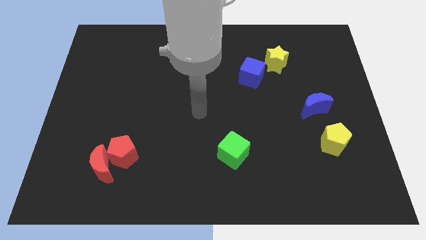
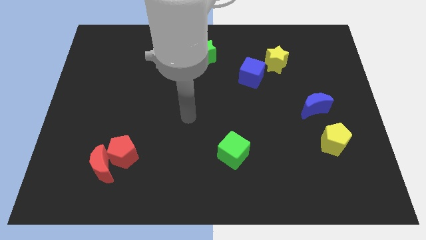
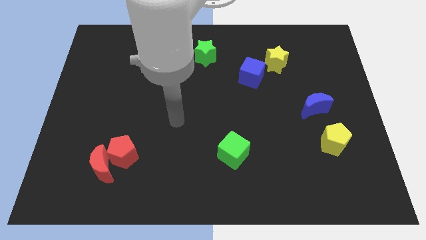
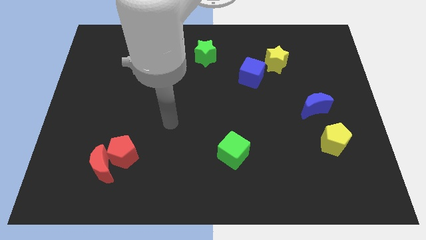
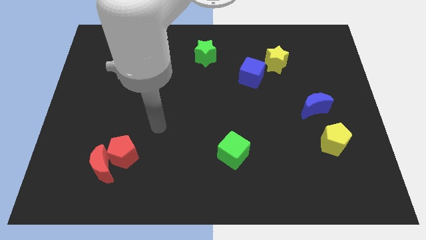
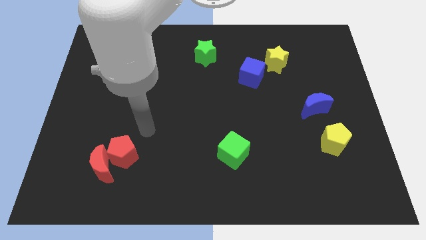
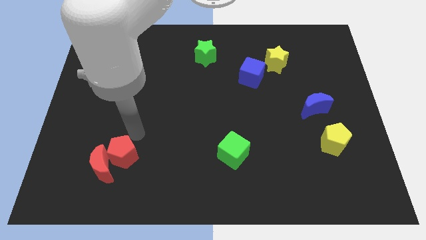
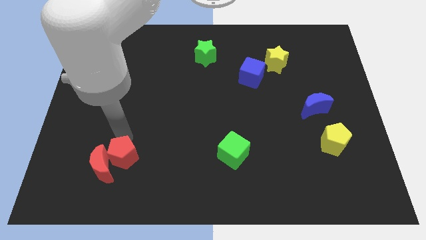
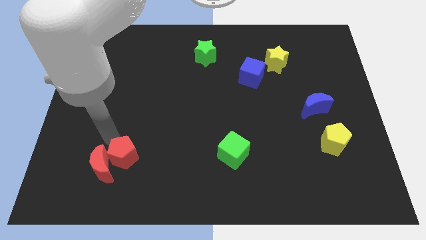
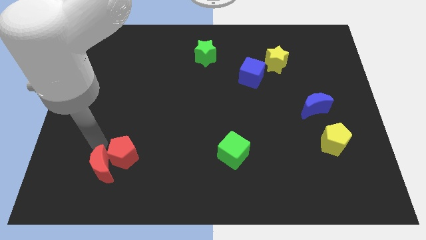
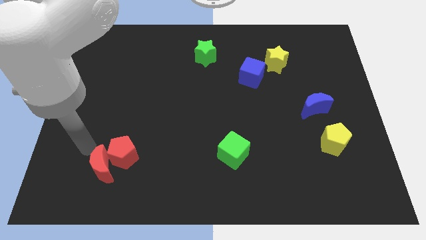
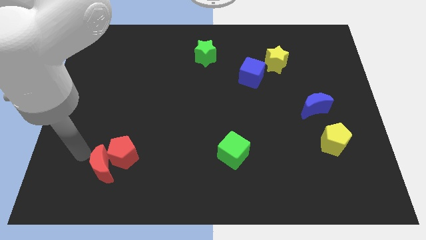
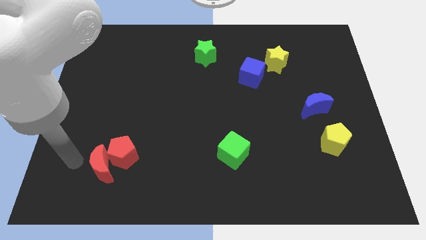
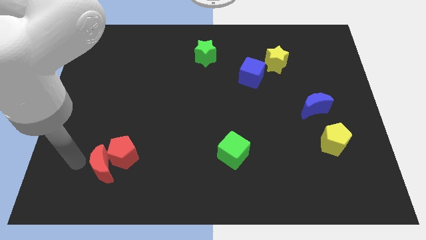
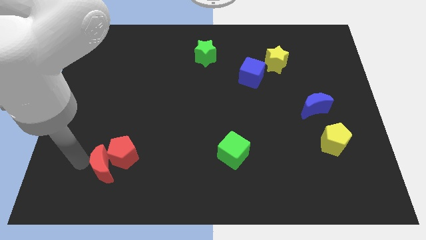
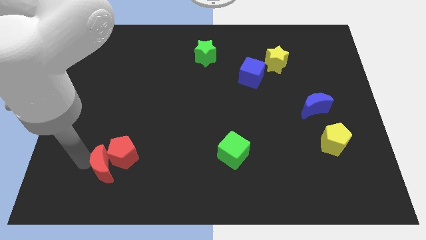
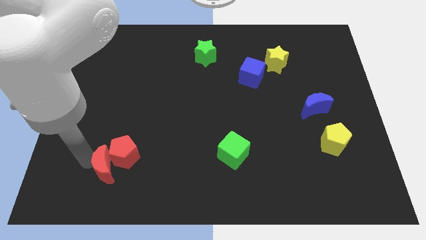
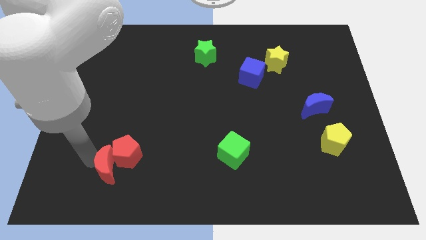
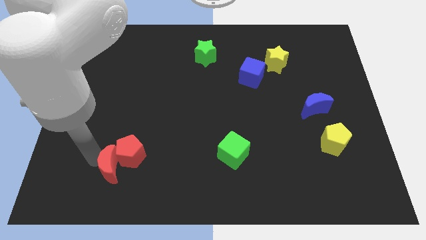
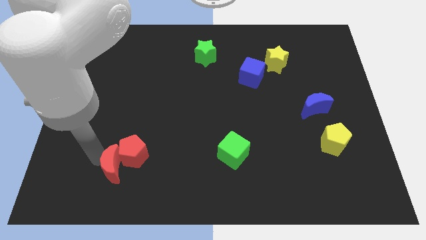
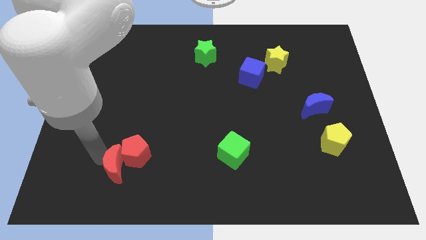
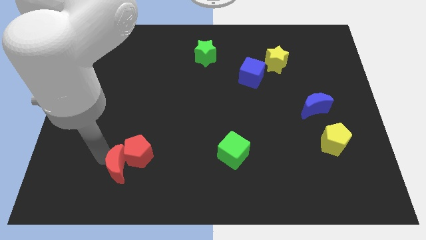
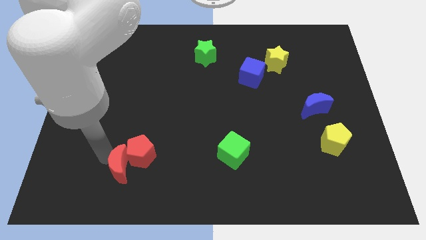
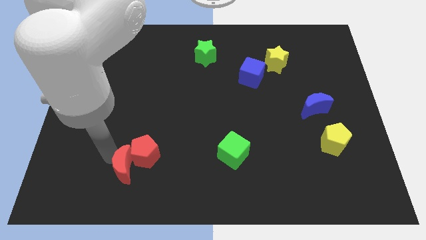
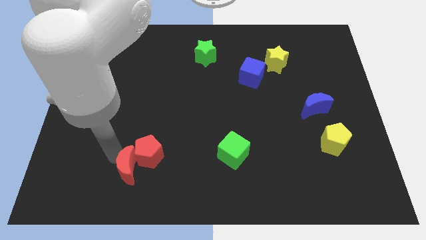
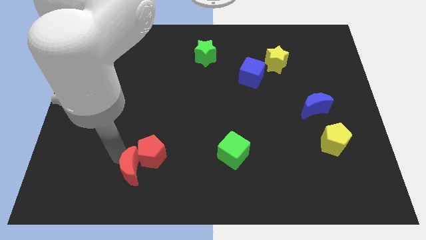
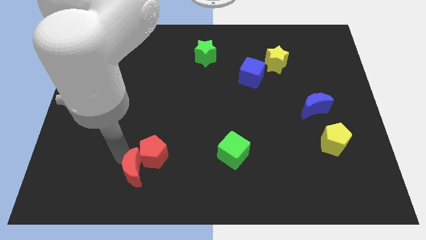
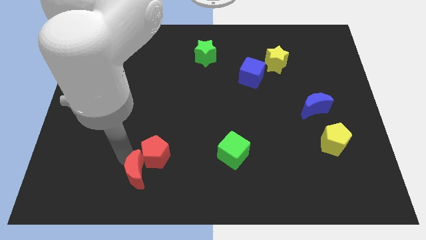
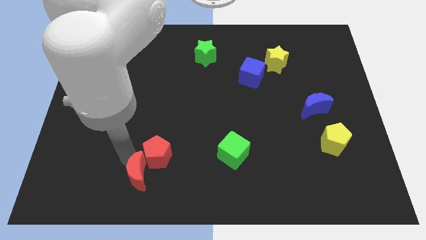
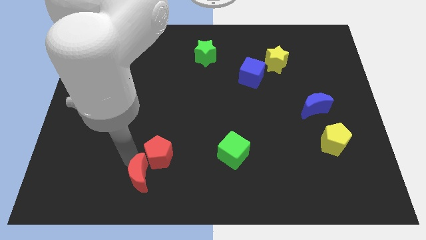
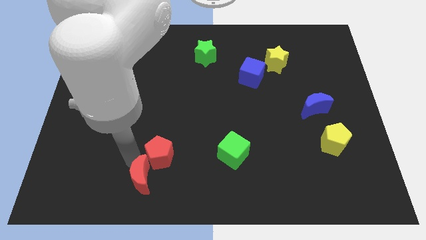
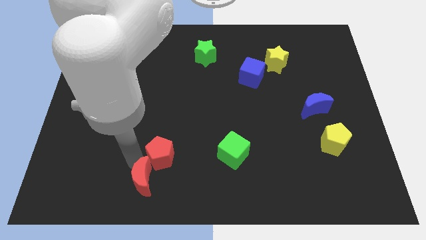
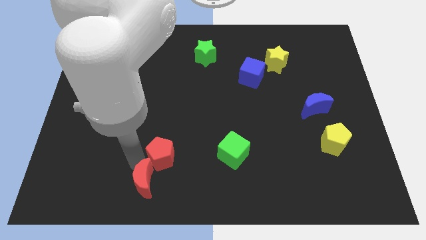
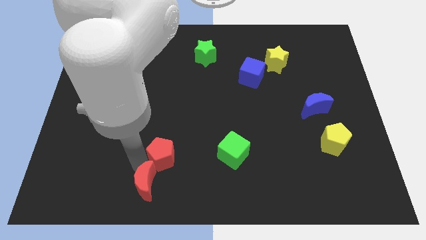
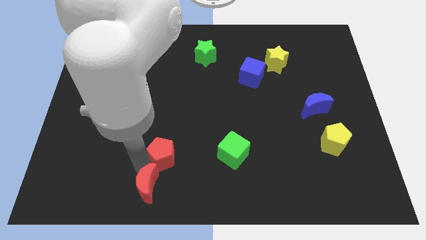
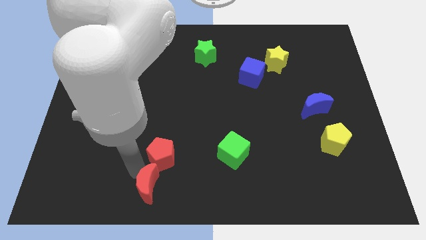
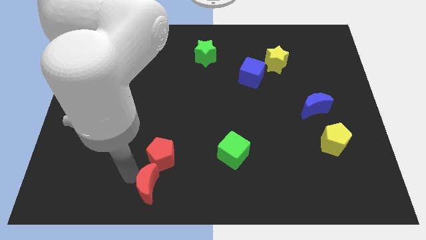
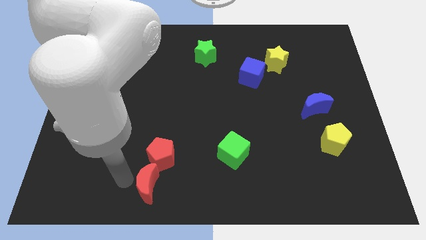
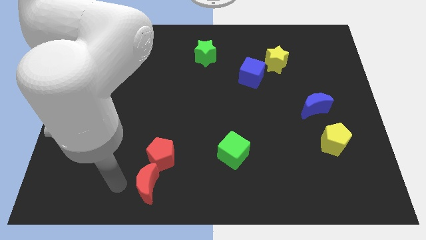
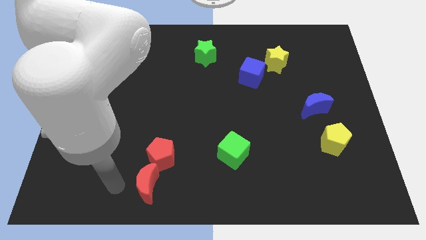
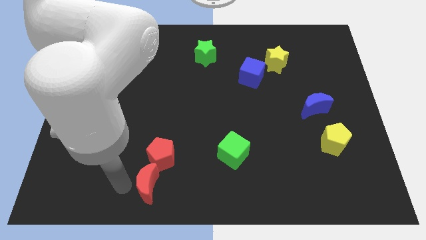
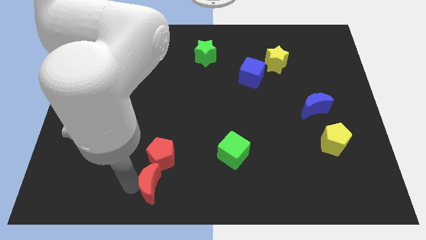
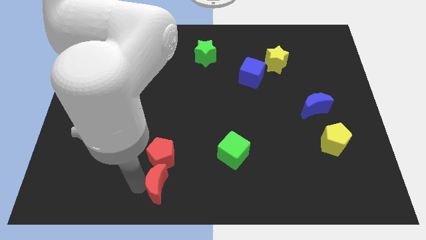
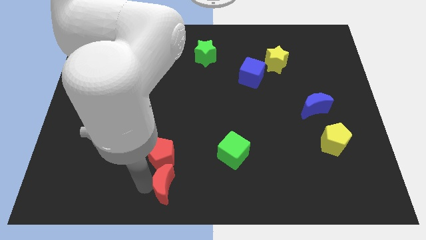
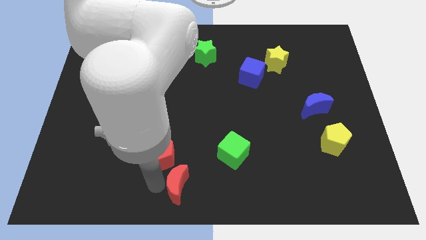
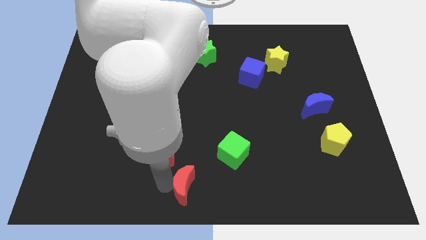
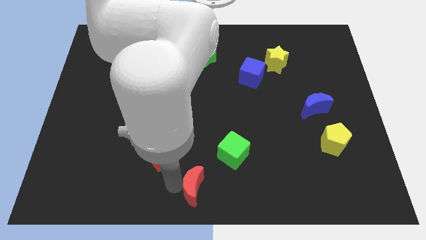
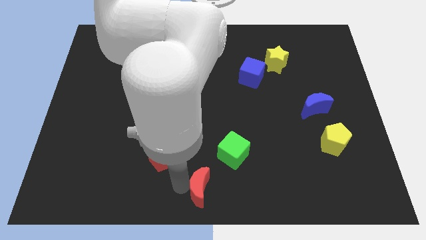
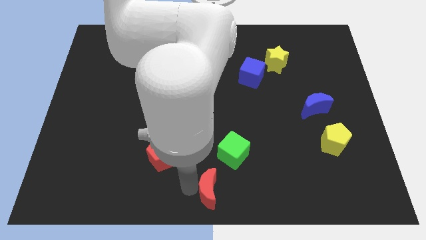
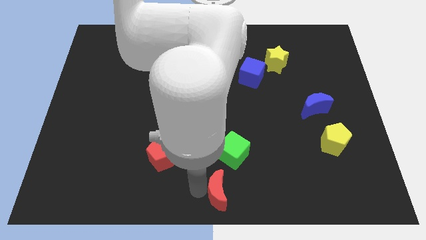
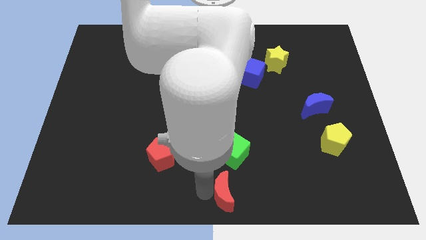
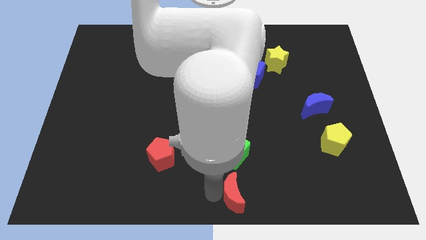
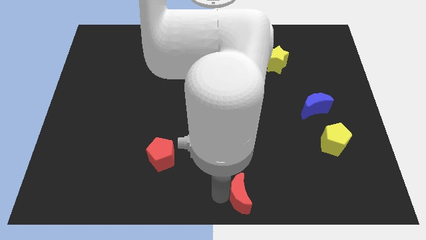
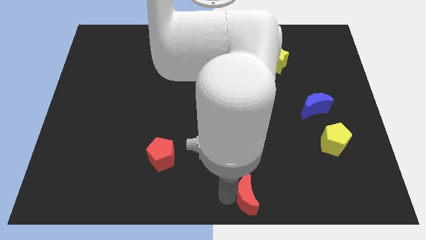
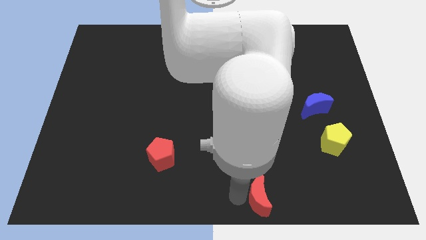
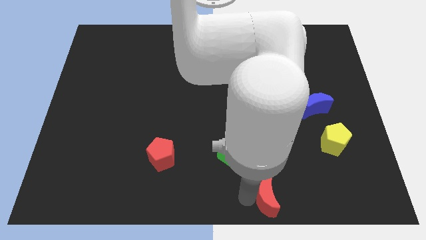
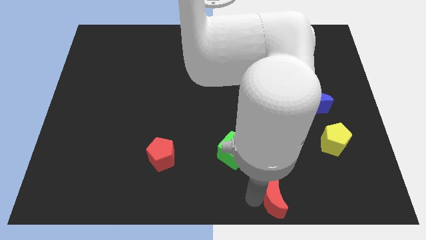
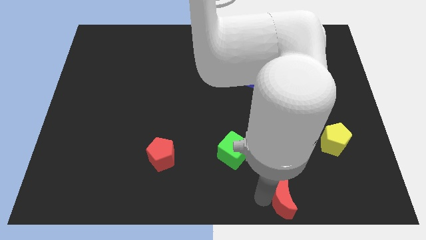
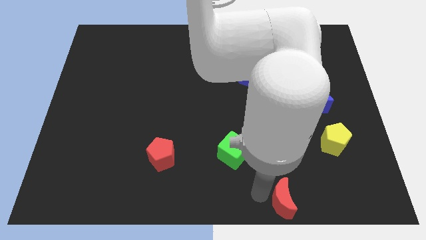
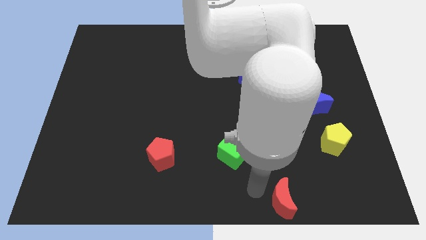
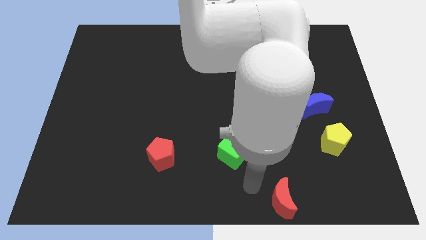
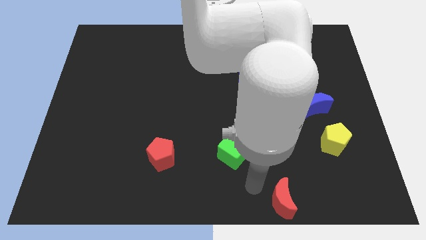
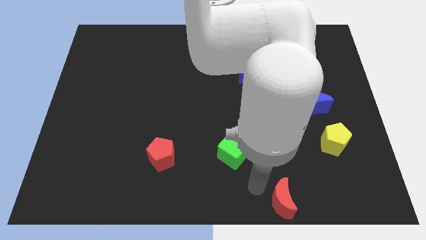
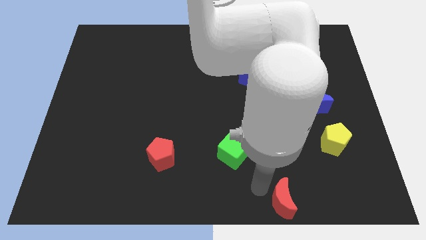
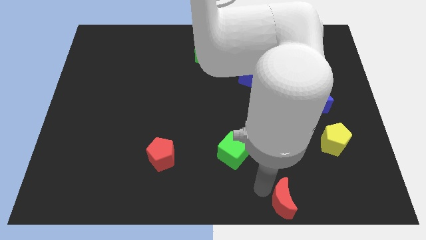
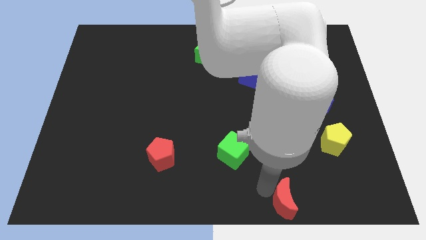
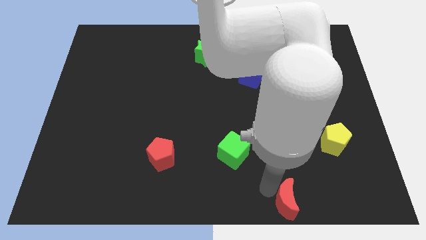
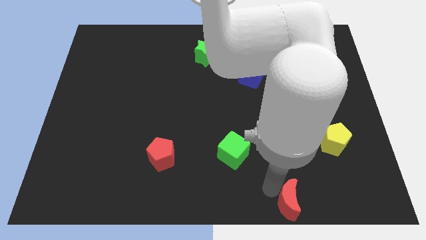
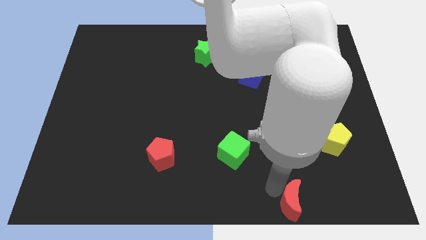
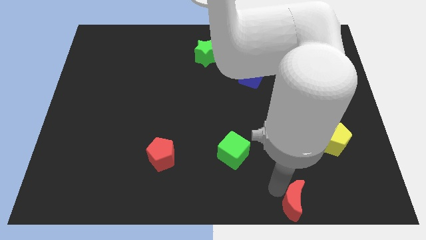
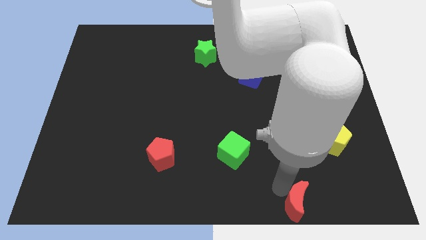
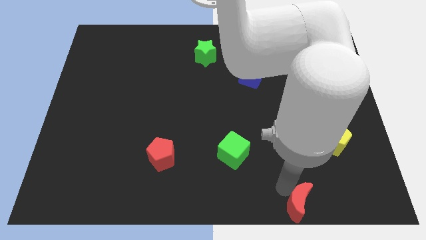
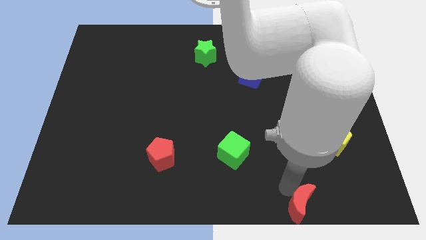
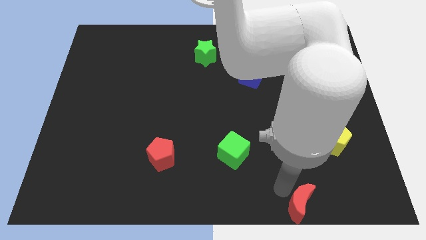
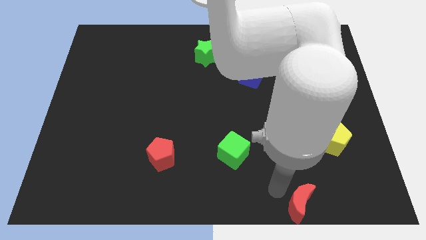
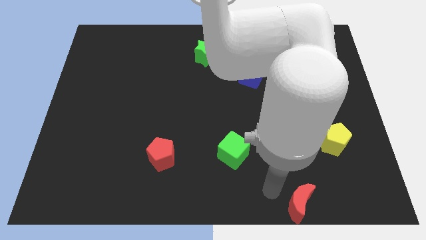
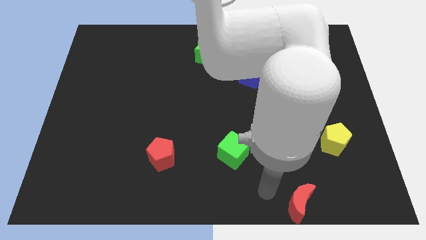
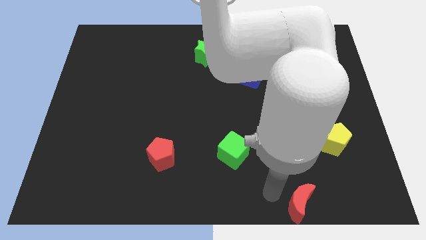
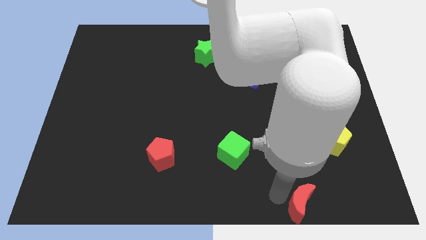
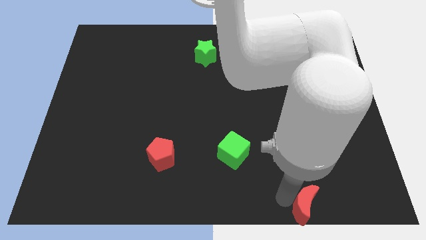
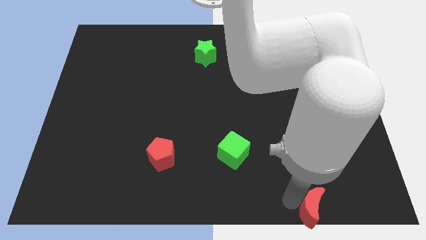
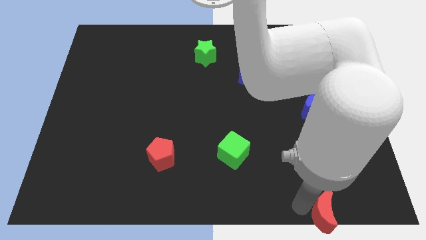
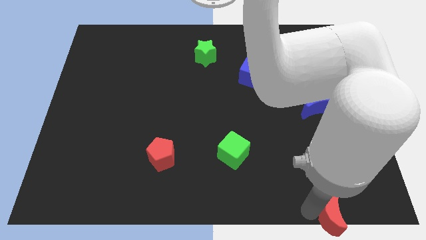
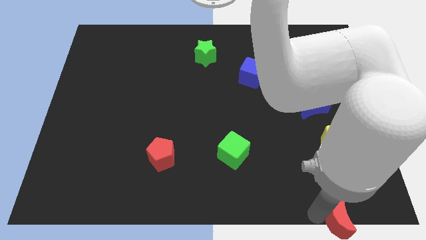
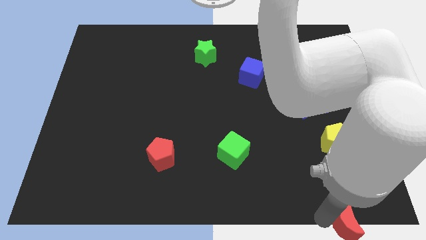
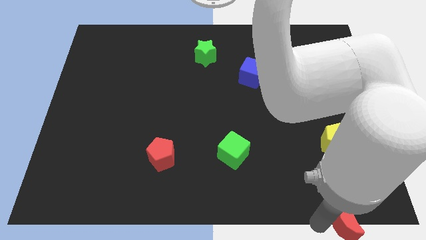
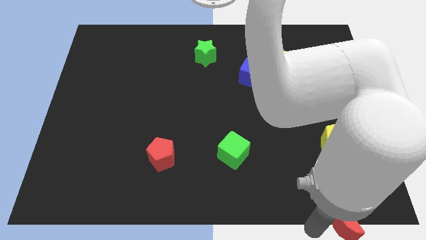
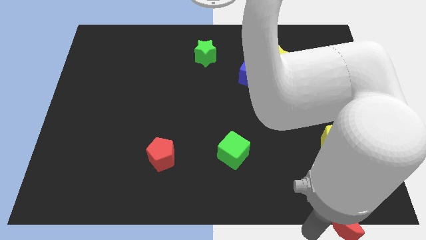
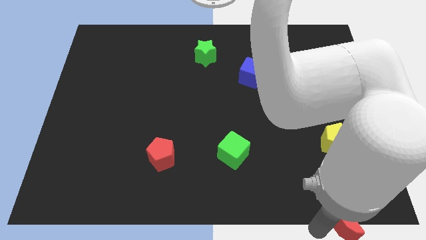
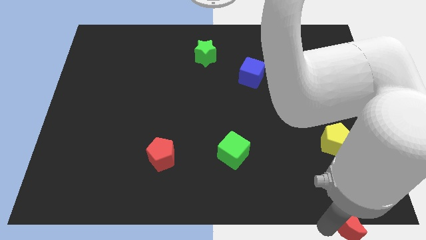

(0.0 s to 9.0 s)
move the red moon to the bottom right corner
